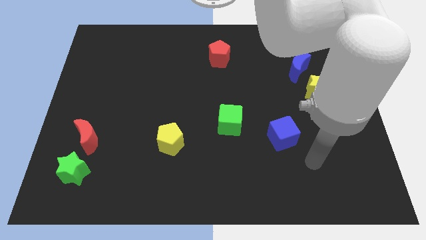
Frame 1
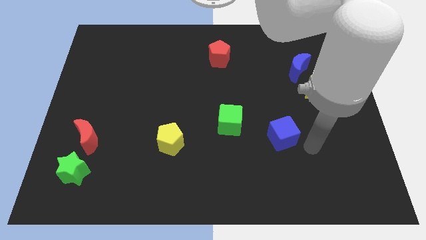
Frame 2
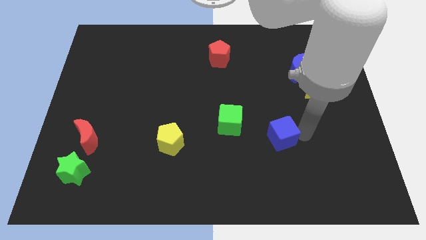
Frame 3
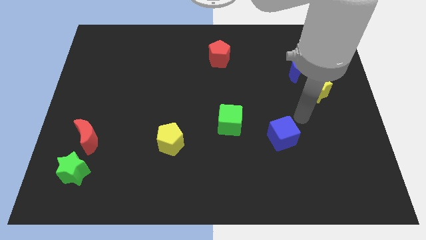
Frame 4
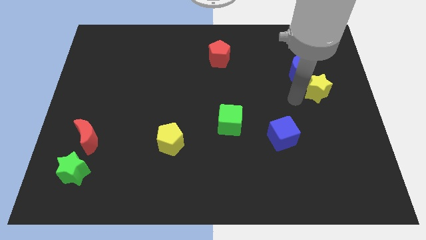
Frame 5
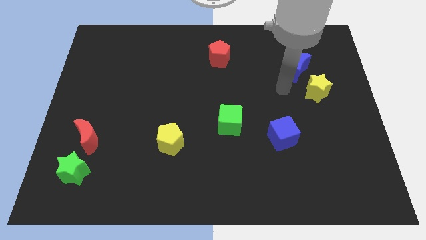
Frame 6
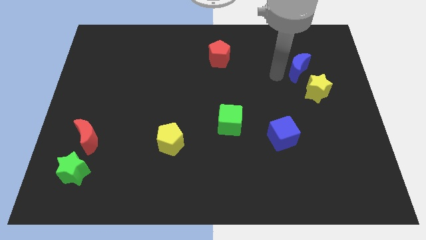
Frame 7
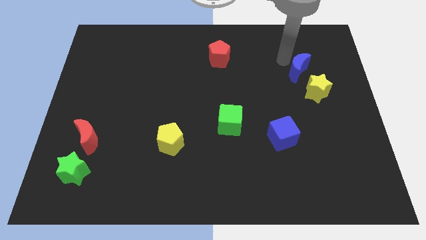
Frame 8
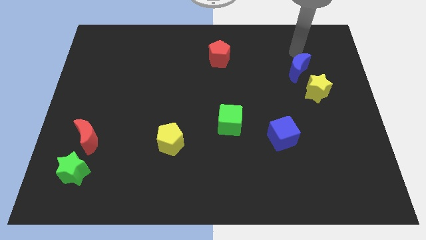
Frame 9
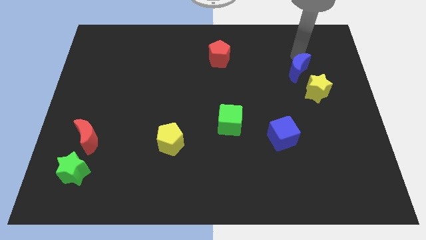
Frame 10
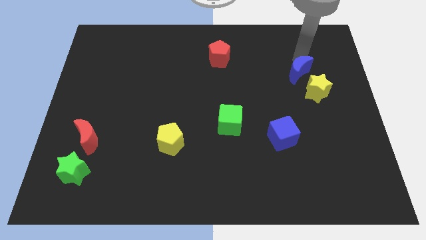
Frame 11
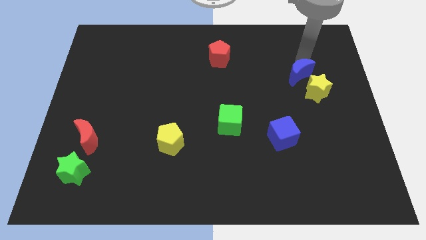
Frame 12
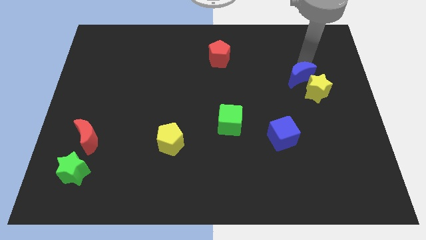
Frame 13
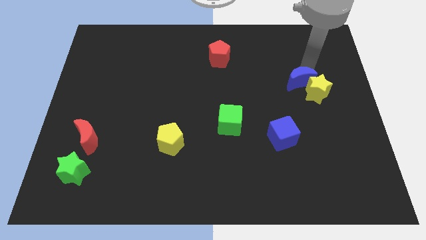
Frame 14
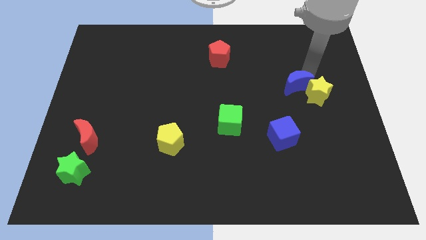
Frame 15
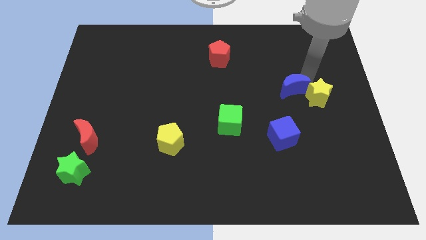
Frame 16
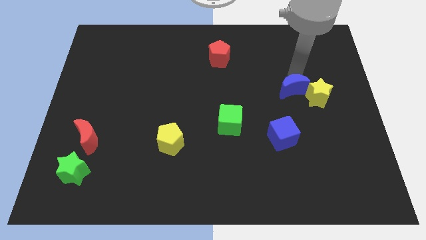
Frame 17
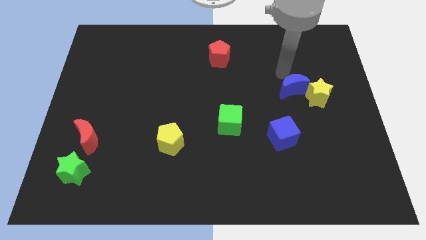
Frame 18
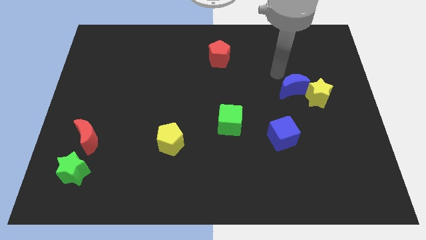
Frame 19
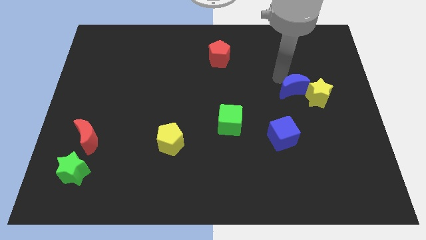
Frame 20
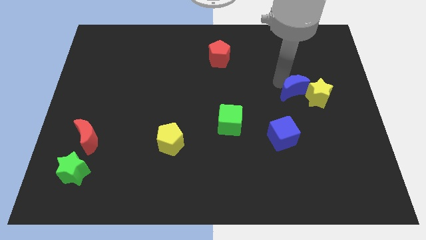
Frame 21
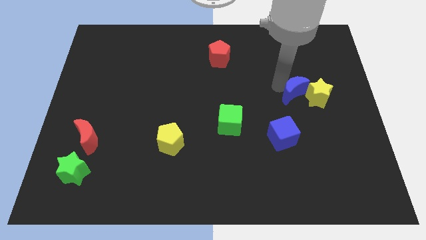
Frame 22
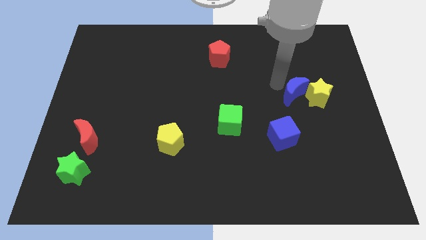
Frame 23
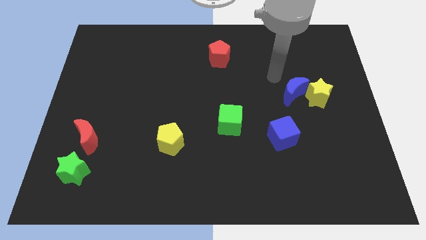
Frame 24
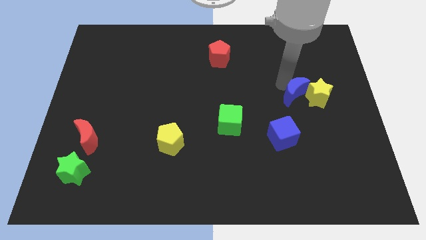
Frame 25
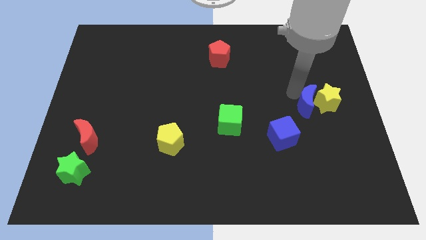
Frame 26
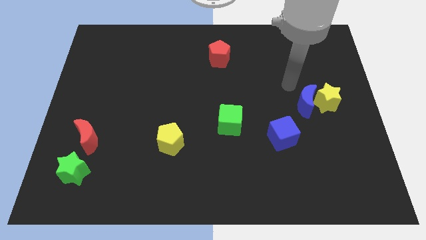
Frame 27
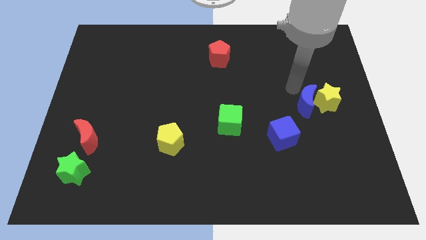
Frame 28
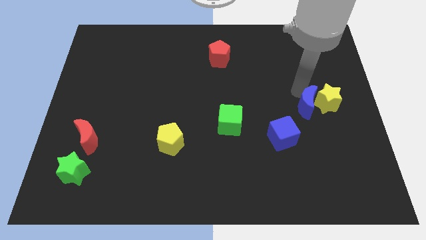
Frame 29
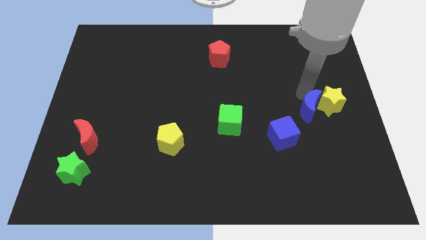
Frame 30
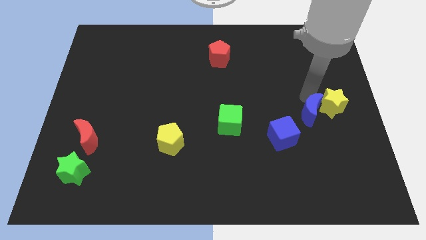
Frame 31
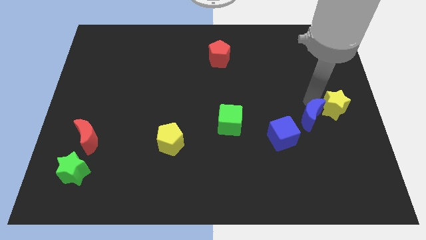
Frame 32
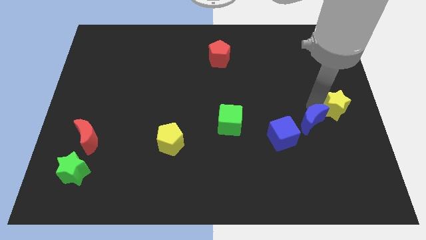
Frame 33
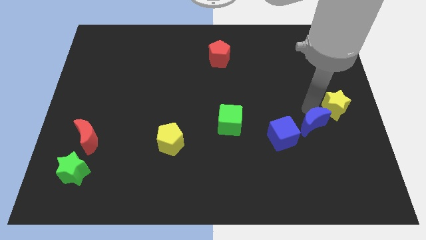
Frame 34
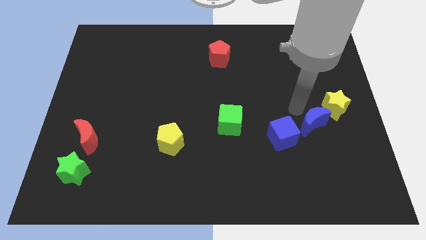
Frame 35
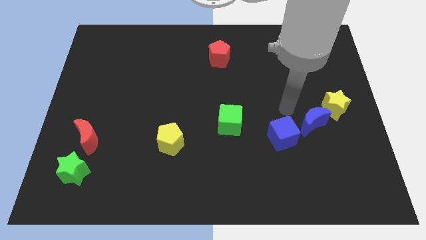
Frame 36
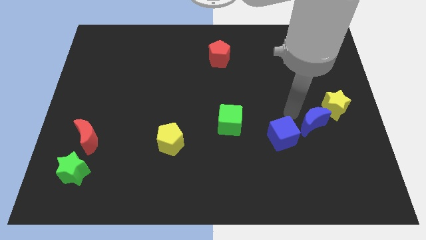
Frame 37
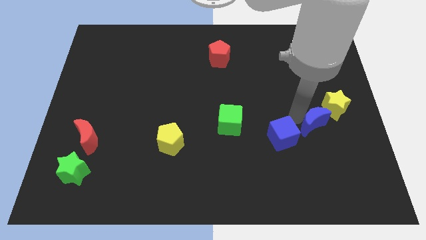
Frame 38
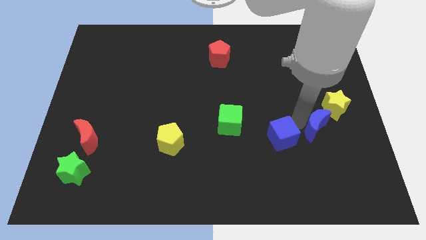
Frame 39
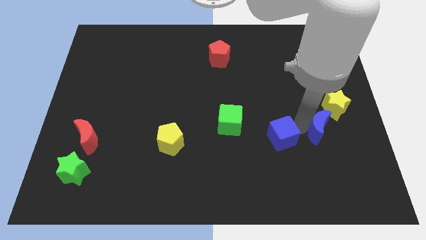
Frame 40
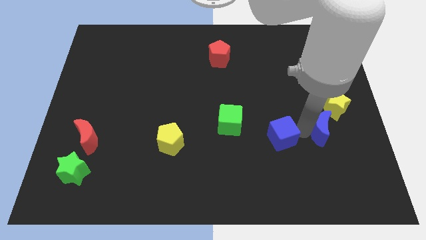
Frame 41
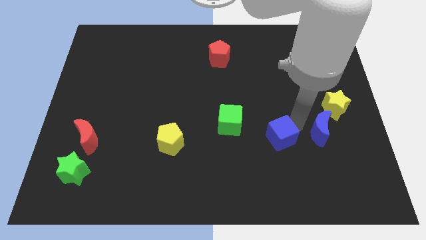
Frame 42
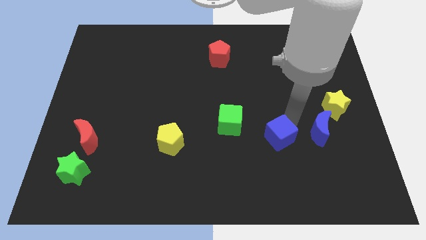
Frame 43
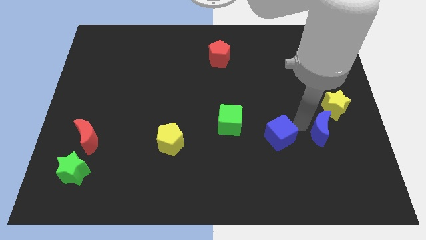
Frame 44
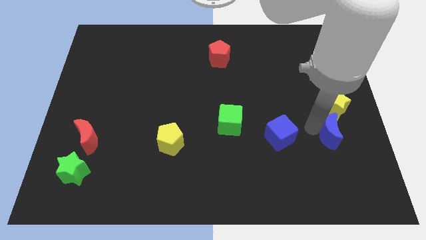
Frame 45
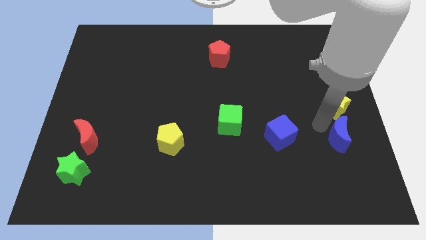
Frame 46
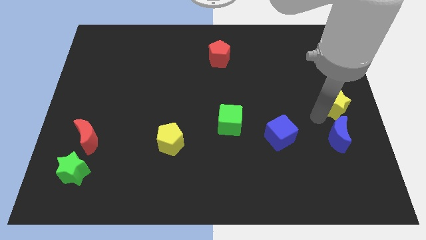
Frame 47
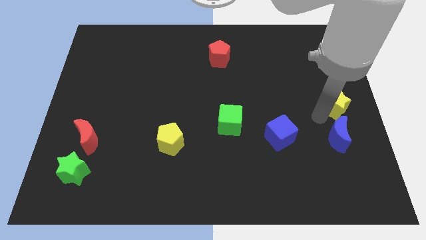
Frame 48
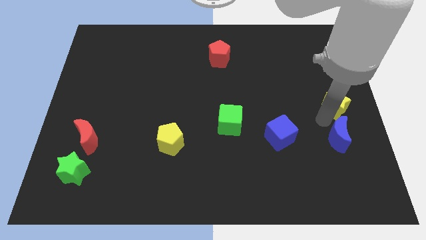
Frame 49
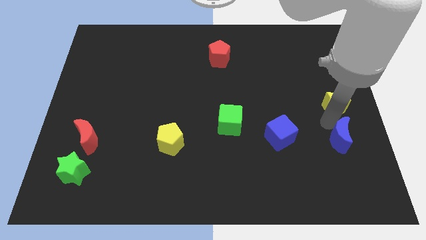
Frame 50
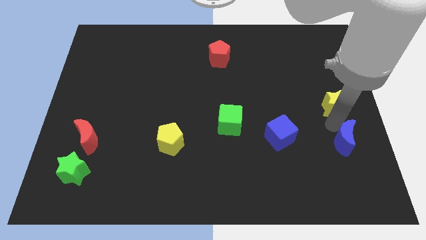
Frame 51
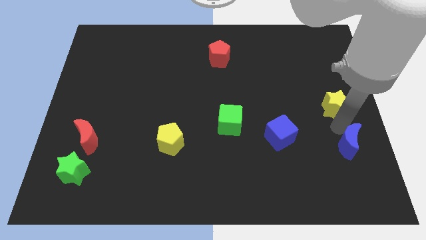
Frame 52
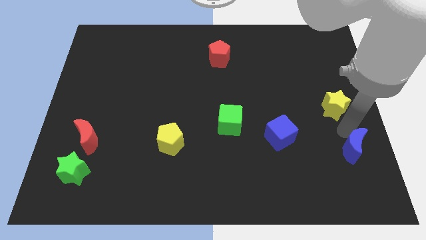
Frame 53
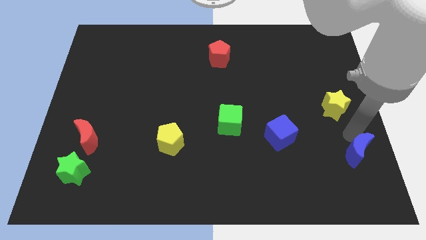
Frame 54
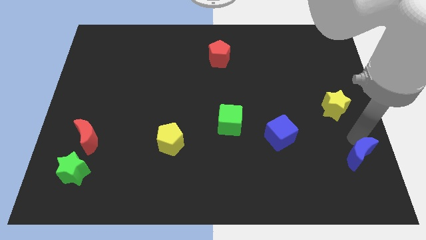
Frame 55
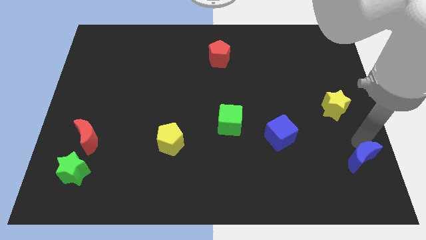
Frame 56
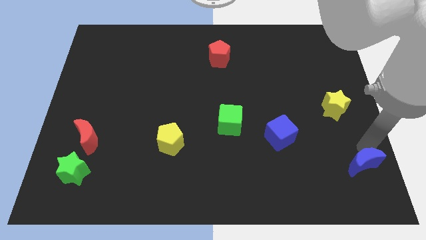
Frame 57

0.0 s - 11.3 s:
slide the blue moon to the lower right corner
